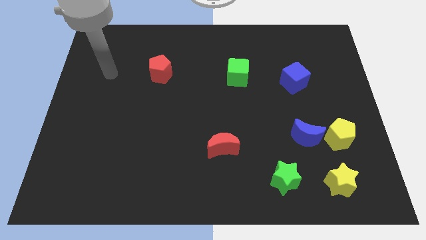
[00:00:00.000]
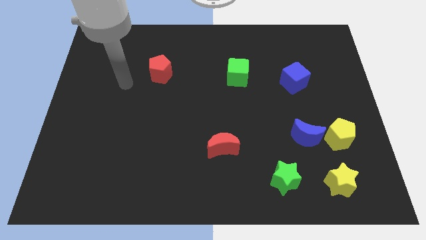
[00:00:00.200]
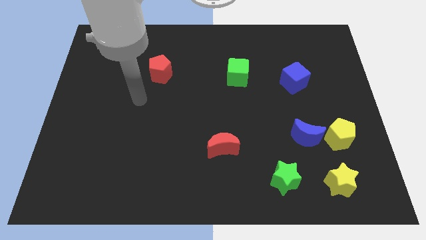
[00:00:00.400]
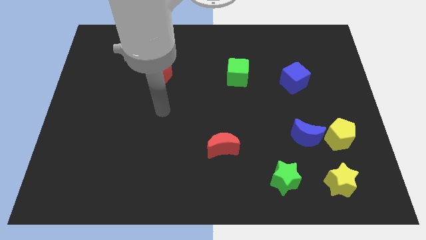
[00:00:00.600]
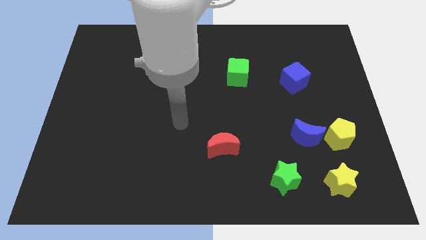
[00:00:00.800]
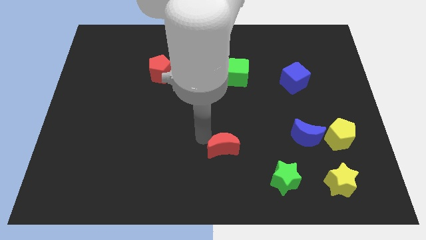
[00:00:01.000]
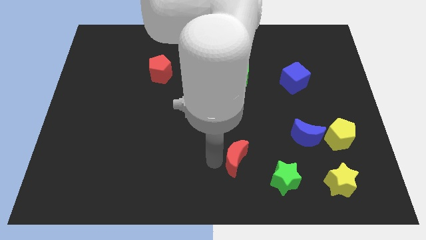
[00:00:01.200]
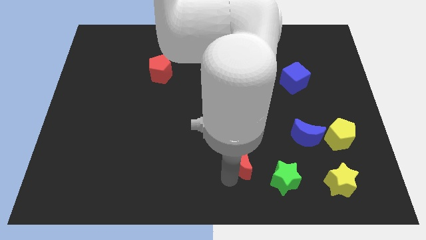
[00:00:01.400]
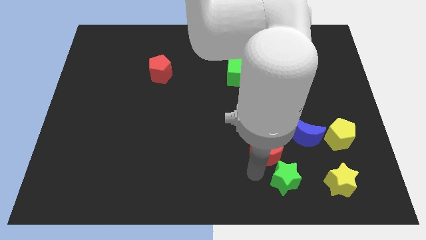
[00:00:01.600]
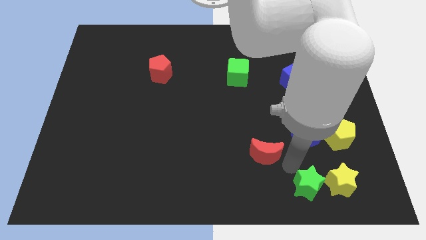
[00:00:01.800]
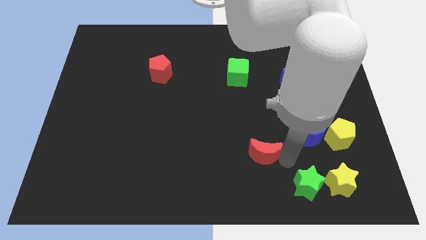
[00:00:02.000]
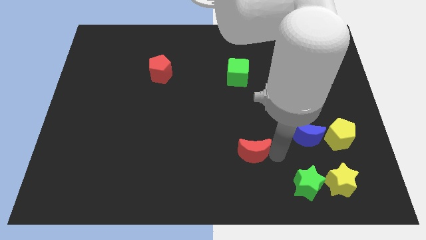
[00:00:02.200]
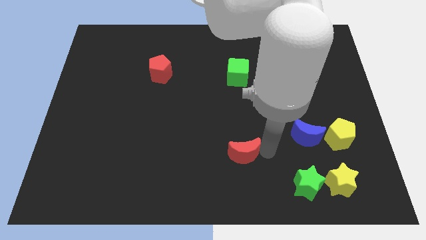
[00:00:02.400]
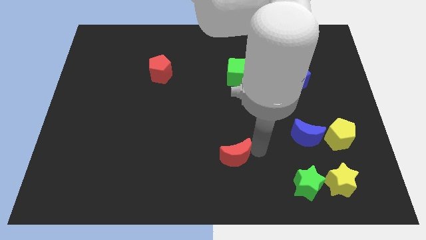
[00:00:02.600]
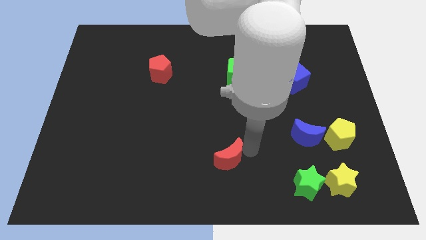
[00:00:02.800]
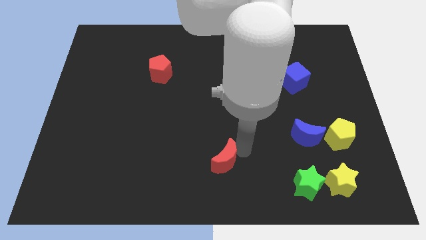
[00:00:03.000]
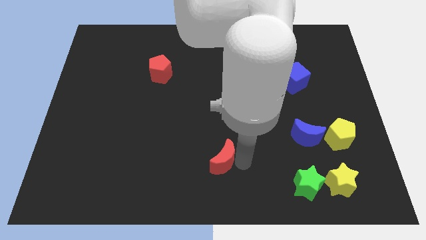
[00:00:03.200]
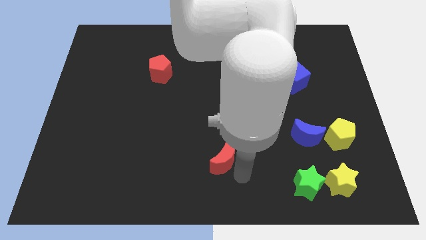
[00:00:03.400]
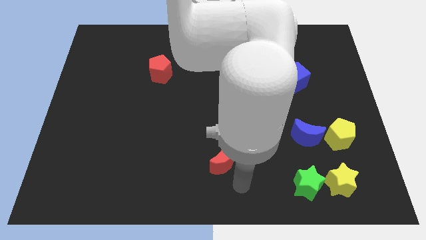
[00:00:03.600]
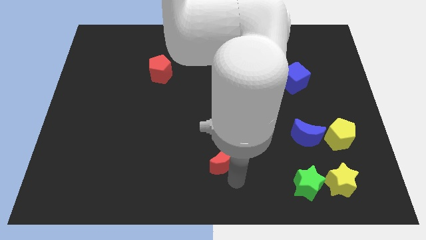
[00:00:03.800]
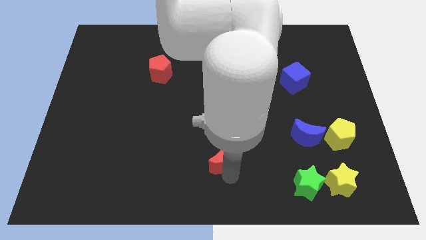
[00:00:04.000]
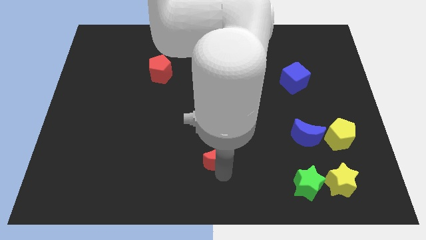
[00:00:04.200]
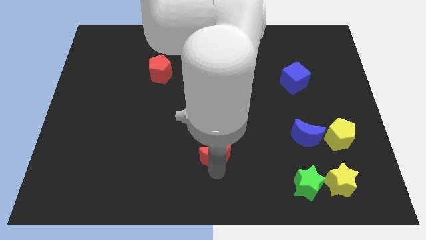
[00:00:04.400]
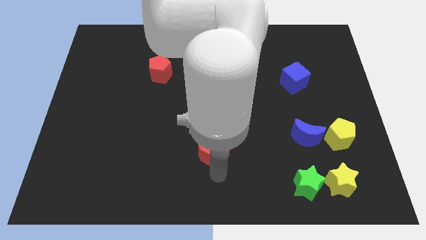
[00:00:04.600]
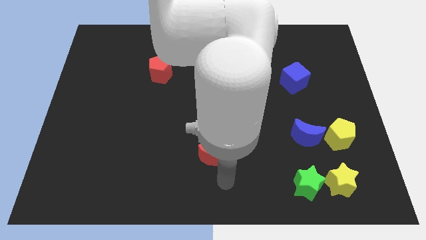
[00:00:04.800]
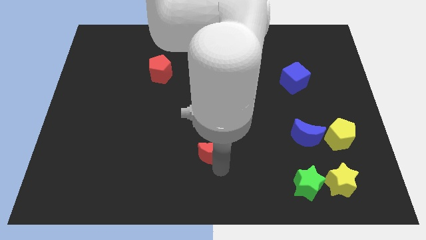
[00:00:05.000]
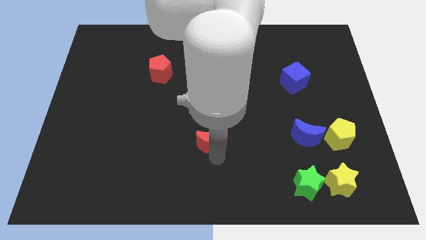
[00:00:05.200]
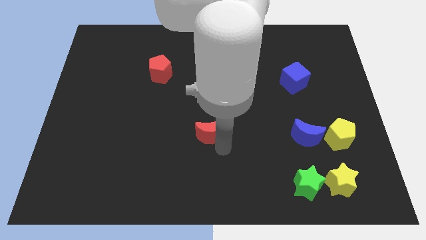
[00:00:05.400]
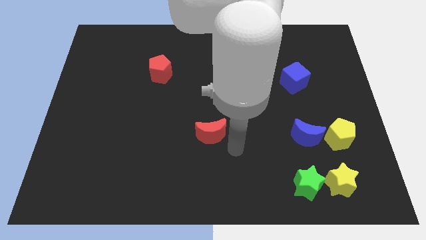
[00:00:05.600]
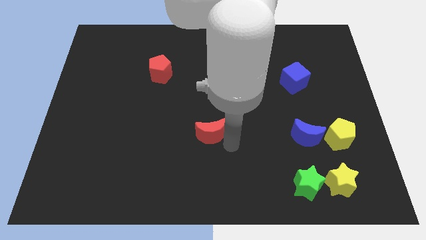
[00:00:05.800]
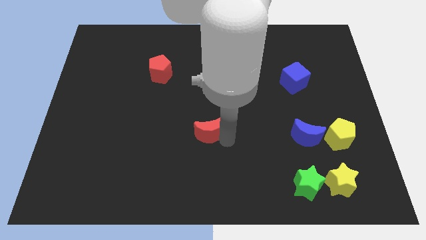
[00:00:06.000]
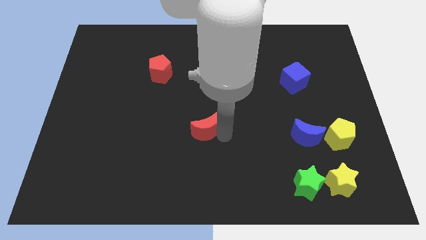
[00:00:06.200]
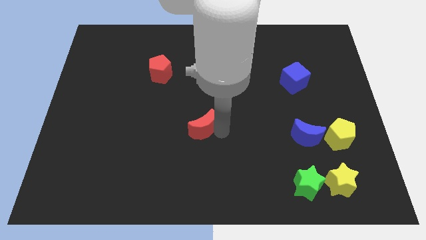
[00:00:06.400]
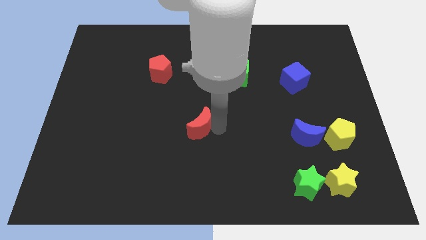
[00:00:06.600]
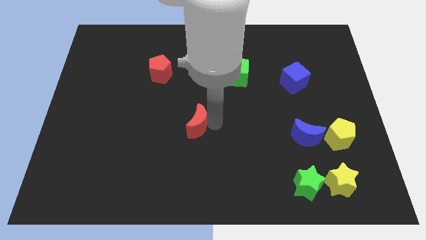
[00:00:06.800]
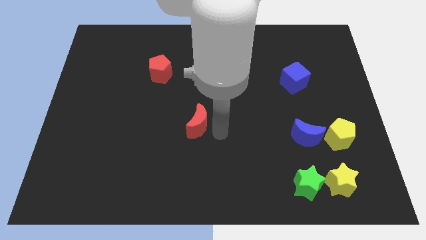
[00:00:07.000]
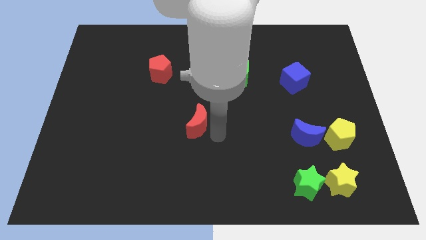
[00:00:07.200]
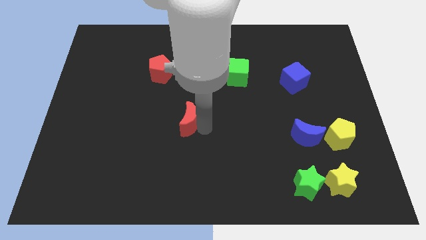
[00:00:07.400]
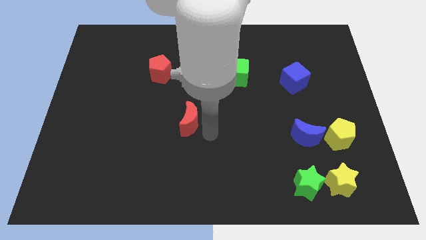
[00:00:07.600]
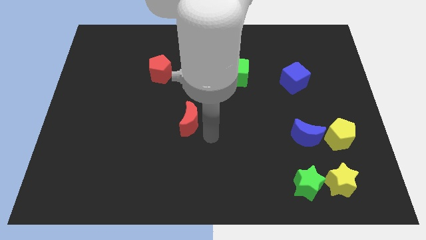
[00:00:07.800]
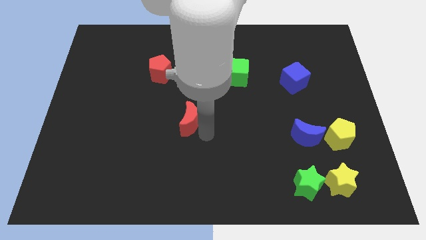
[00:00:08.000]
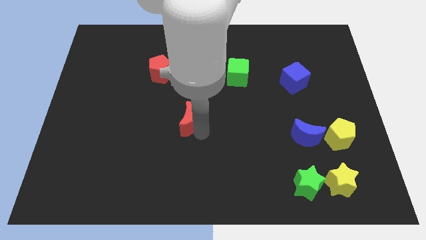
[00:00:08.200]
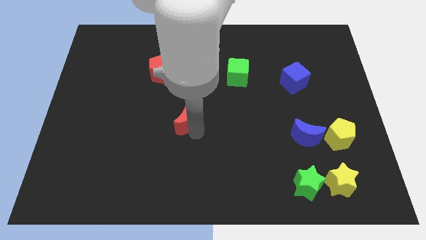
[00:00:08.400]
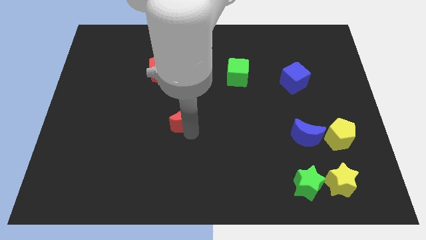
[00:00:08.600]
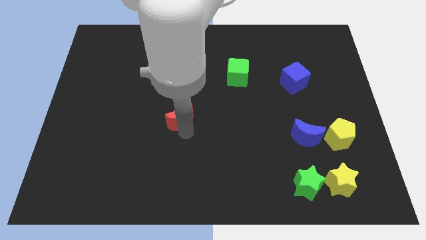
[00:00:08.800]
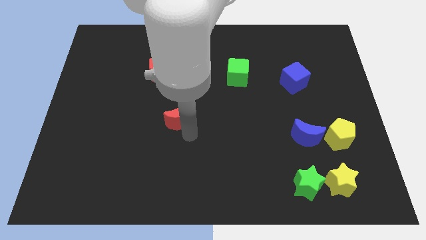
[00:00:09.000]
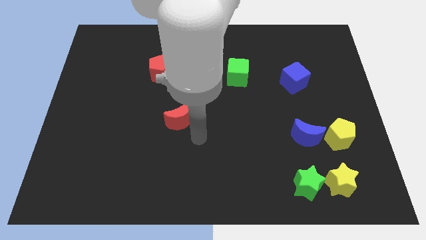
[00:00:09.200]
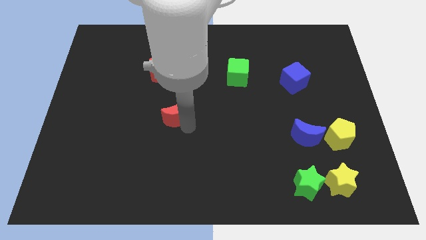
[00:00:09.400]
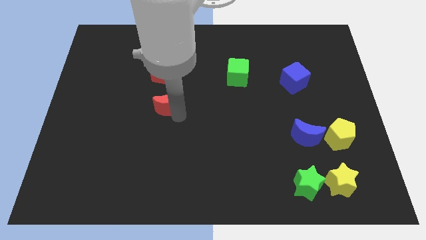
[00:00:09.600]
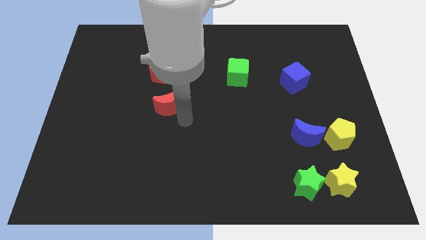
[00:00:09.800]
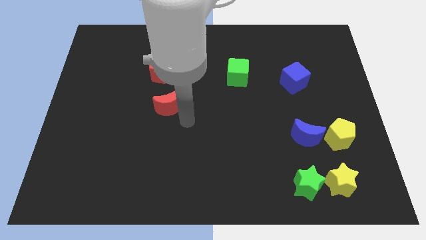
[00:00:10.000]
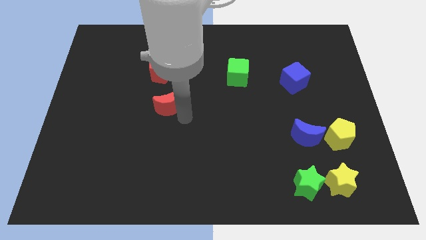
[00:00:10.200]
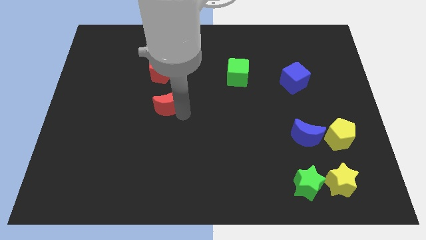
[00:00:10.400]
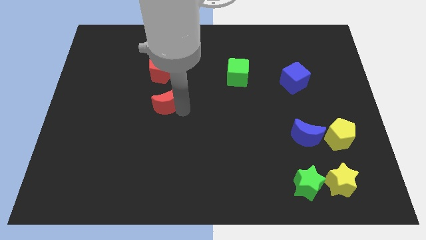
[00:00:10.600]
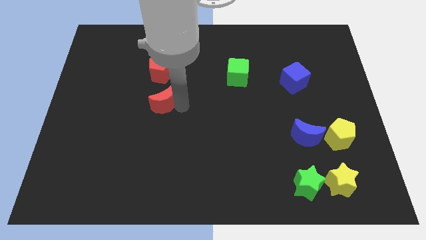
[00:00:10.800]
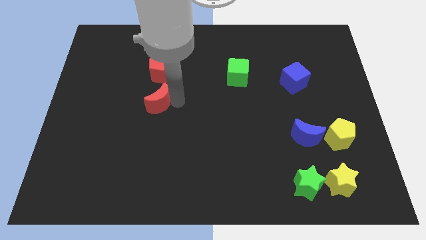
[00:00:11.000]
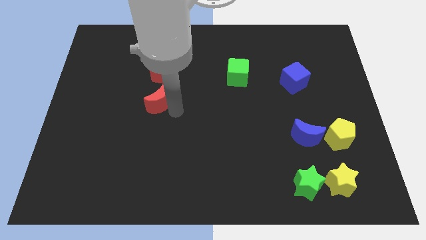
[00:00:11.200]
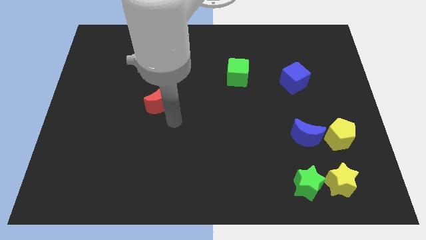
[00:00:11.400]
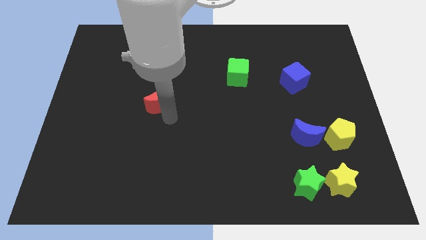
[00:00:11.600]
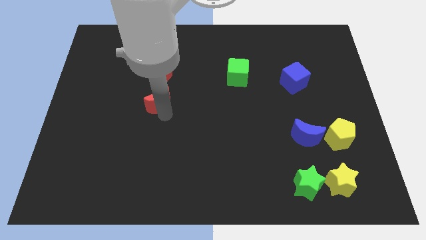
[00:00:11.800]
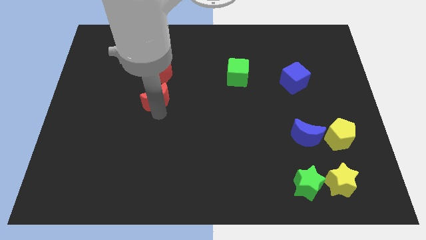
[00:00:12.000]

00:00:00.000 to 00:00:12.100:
slide the red moon upwards and to the left diagonally

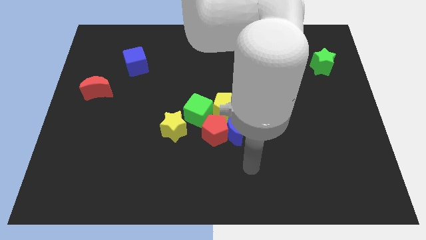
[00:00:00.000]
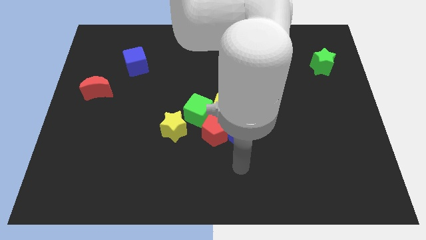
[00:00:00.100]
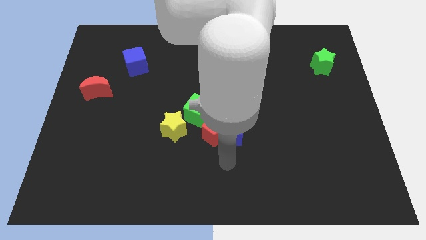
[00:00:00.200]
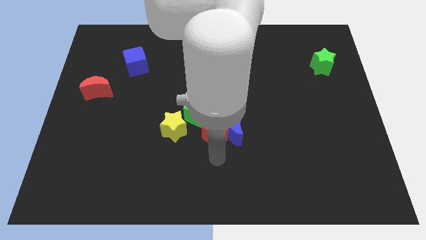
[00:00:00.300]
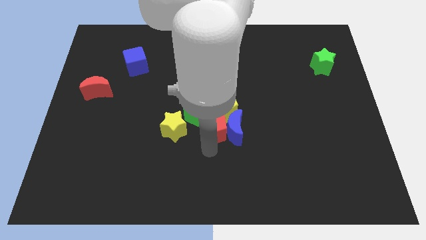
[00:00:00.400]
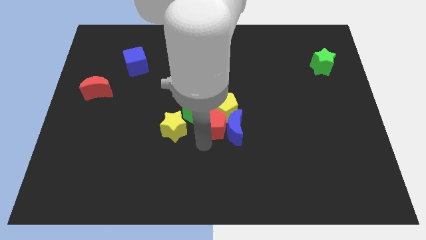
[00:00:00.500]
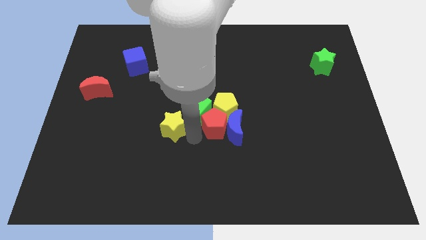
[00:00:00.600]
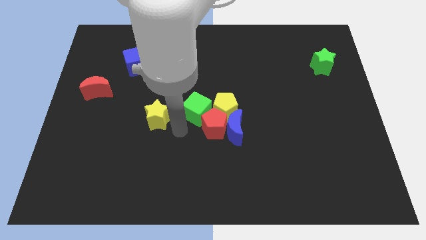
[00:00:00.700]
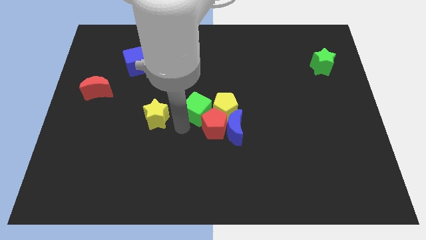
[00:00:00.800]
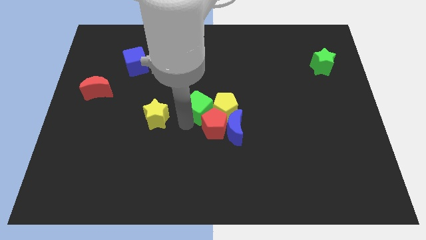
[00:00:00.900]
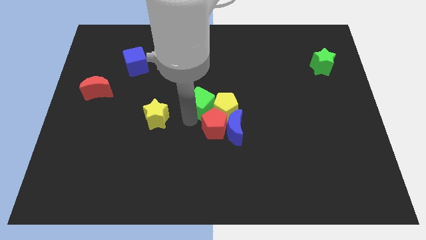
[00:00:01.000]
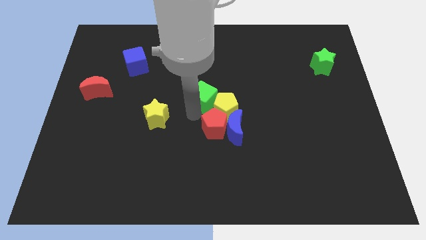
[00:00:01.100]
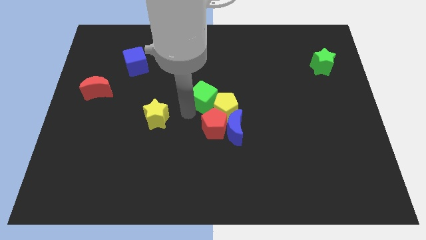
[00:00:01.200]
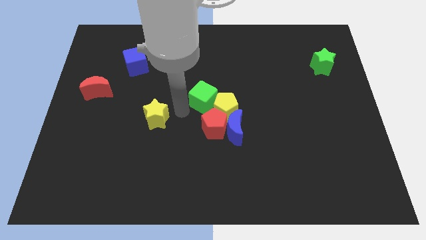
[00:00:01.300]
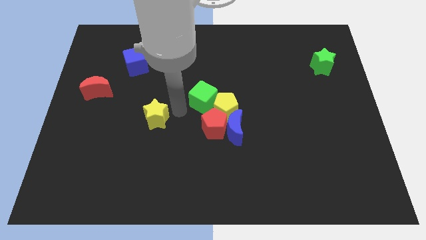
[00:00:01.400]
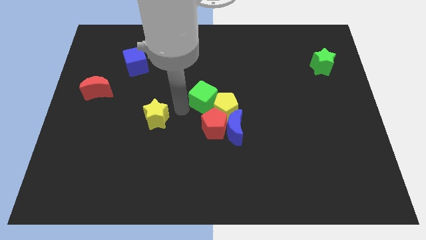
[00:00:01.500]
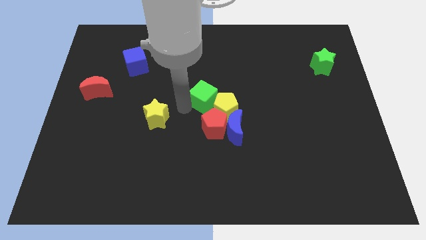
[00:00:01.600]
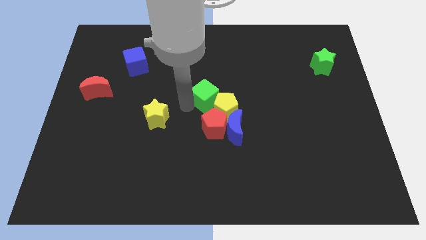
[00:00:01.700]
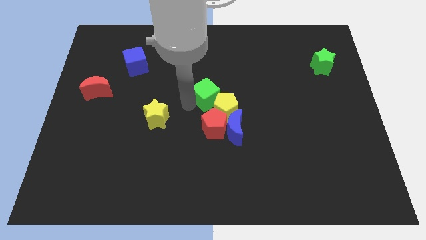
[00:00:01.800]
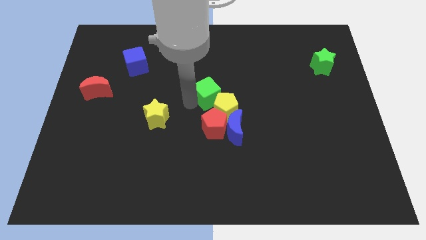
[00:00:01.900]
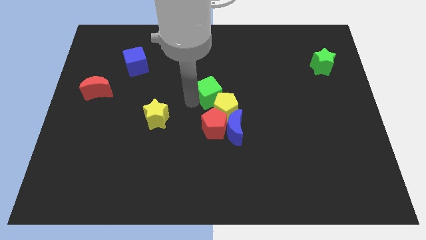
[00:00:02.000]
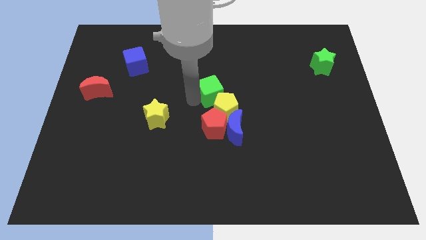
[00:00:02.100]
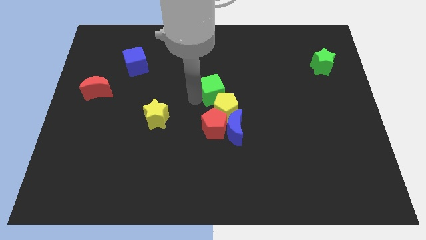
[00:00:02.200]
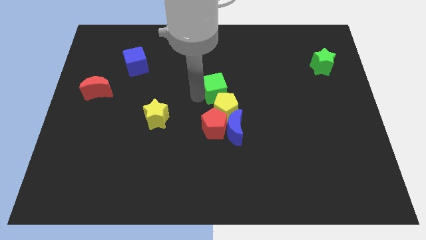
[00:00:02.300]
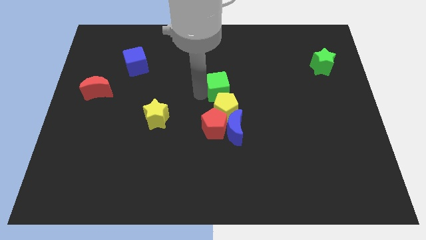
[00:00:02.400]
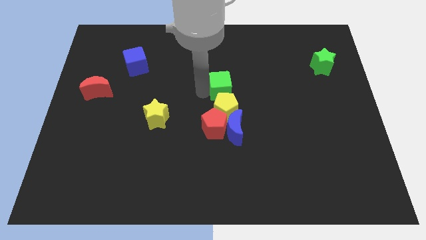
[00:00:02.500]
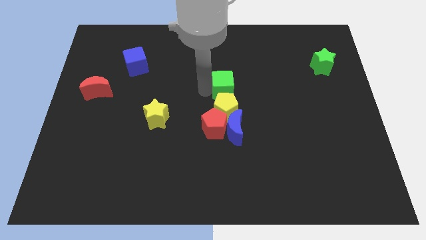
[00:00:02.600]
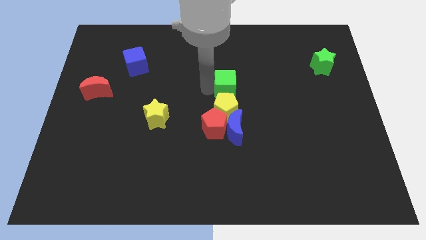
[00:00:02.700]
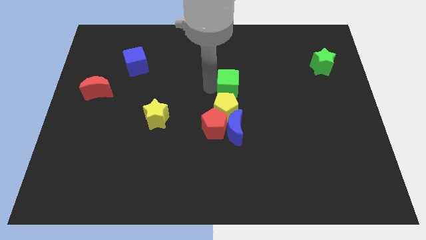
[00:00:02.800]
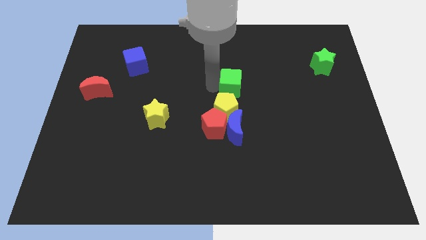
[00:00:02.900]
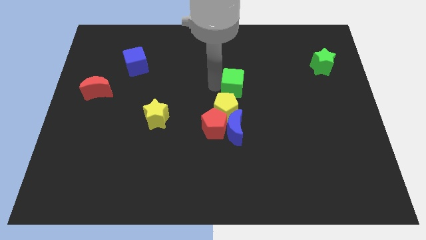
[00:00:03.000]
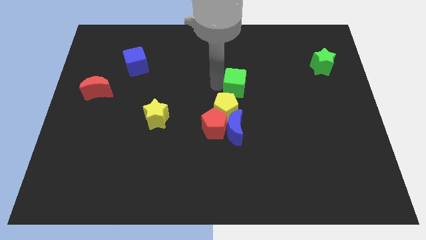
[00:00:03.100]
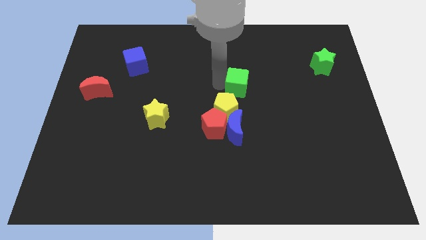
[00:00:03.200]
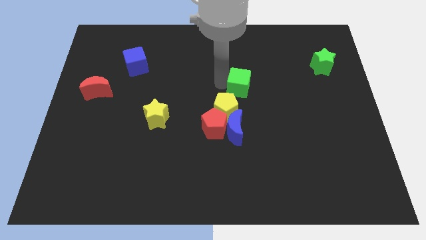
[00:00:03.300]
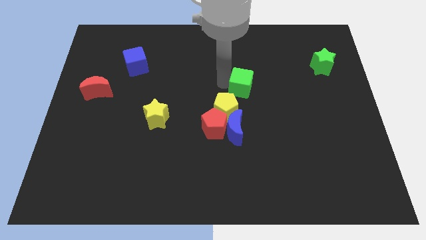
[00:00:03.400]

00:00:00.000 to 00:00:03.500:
move the green cube to the right a bit
